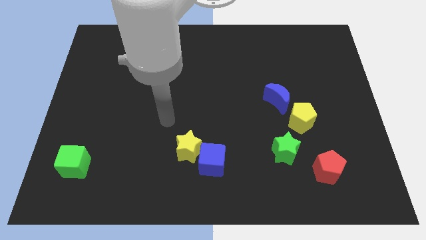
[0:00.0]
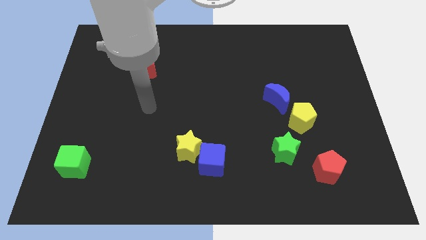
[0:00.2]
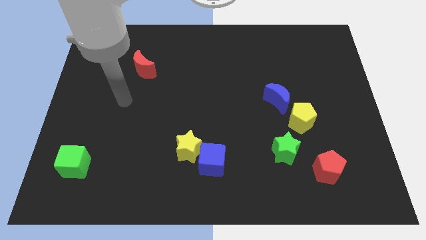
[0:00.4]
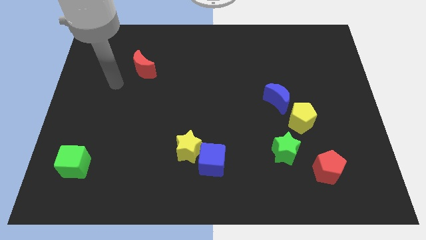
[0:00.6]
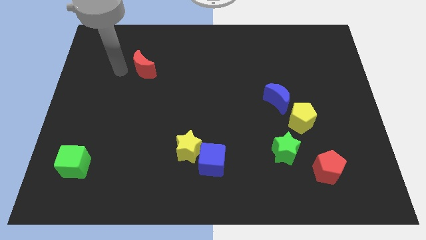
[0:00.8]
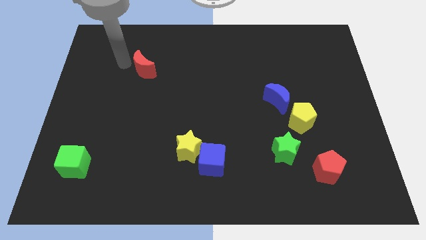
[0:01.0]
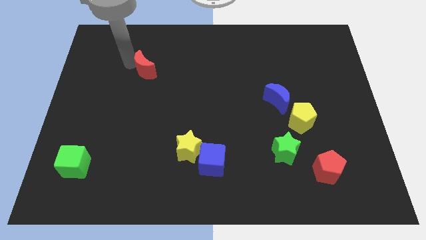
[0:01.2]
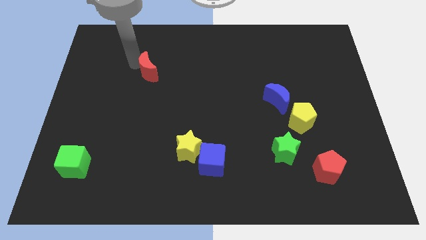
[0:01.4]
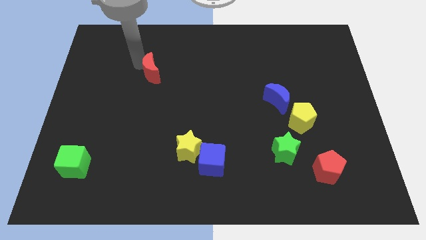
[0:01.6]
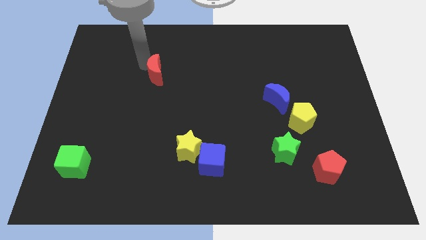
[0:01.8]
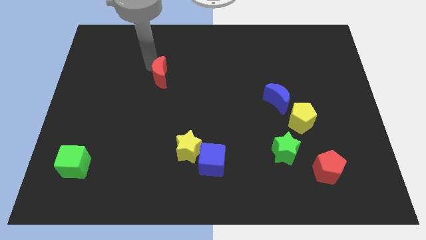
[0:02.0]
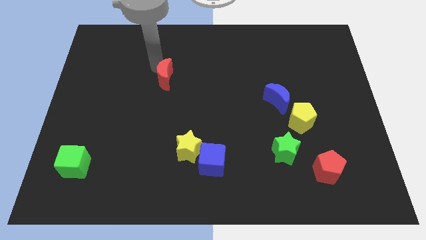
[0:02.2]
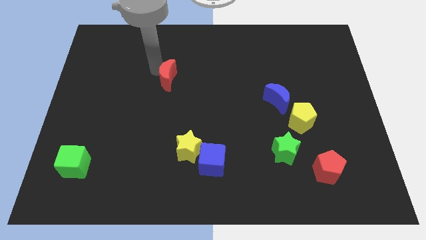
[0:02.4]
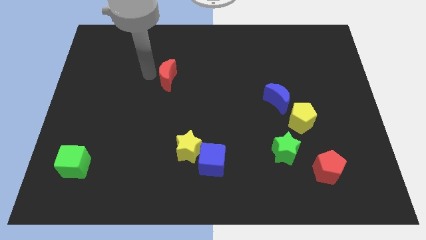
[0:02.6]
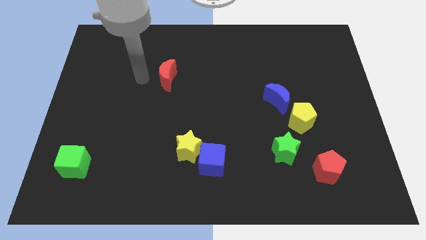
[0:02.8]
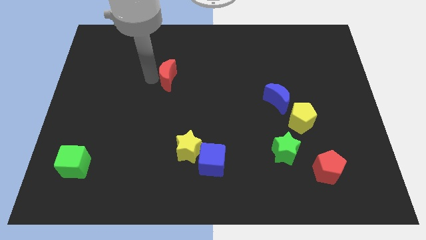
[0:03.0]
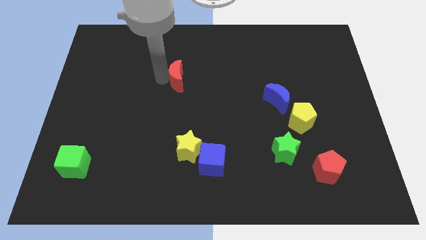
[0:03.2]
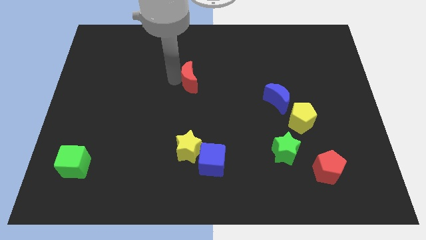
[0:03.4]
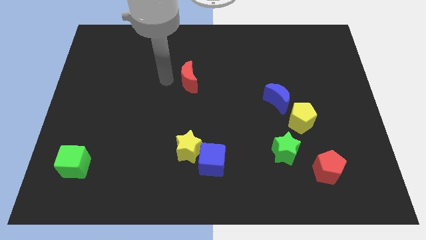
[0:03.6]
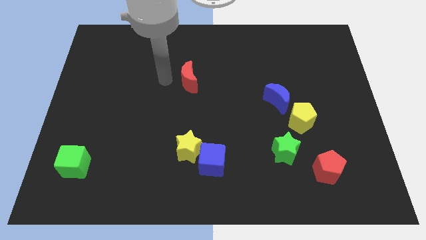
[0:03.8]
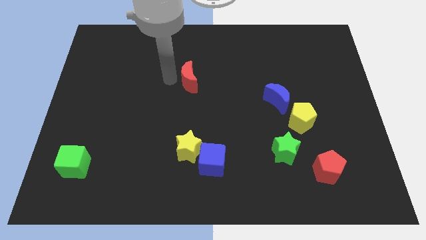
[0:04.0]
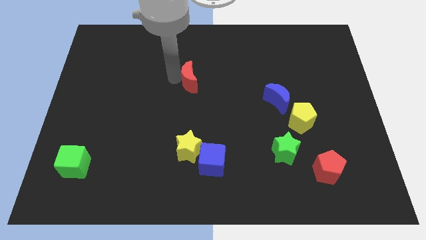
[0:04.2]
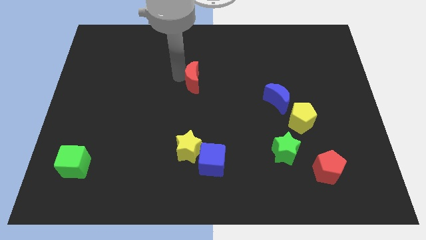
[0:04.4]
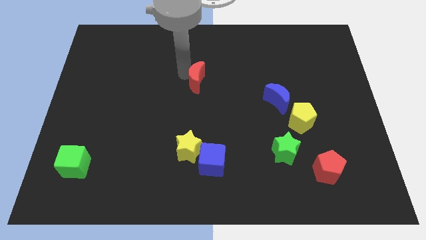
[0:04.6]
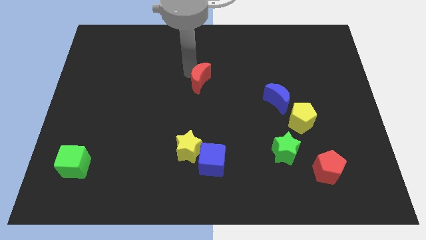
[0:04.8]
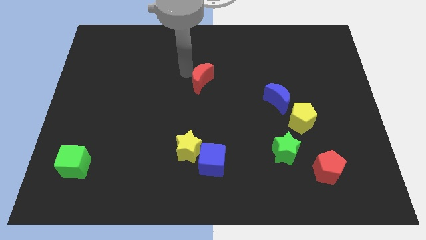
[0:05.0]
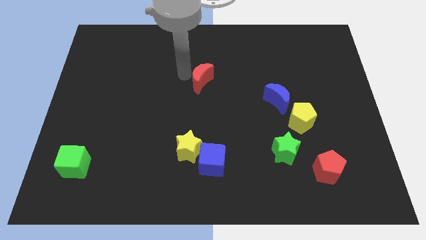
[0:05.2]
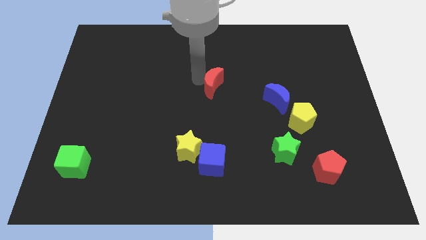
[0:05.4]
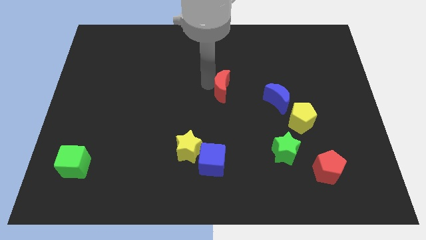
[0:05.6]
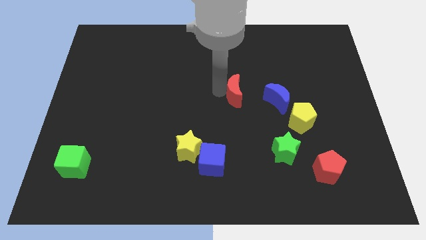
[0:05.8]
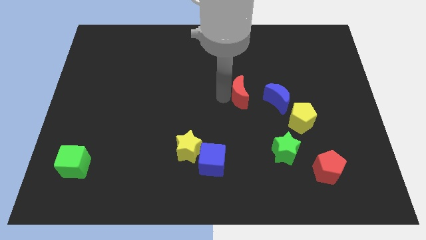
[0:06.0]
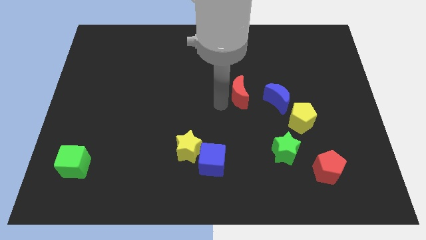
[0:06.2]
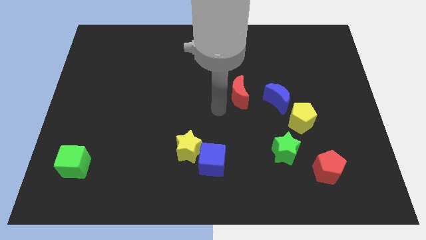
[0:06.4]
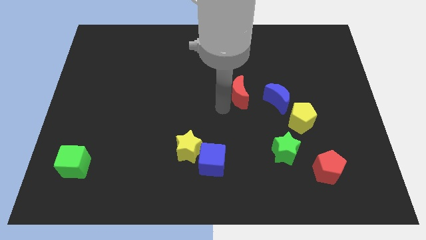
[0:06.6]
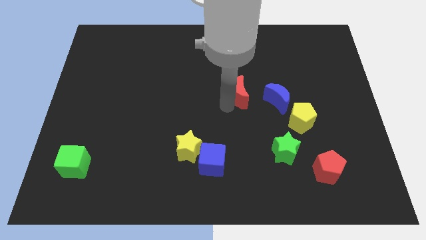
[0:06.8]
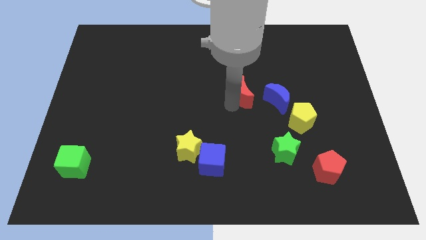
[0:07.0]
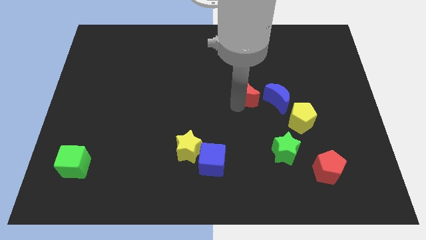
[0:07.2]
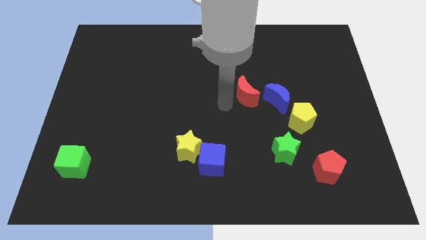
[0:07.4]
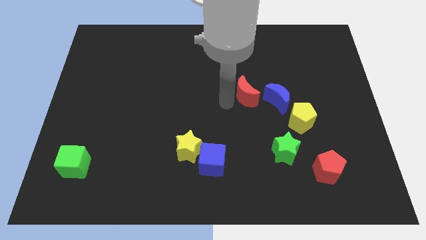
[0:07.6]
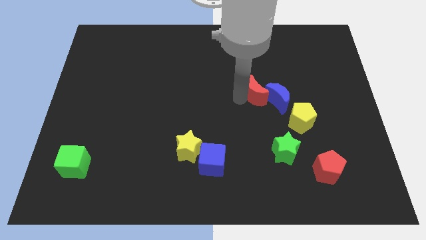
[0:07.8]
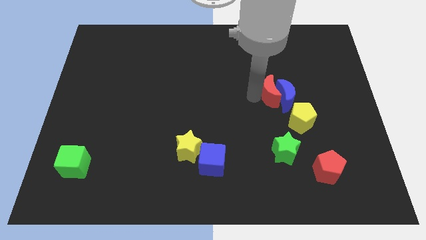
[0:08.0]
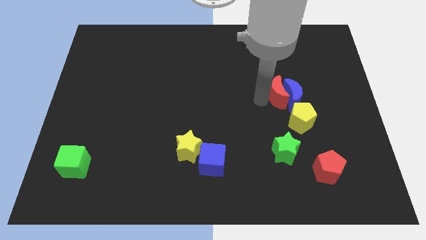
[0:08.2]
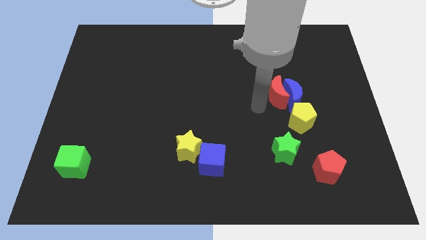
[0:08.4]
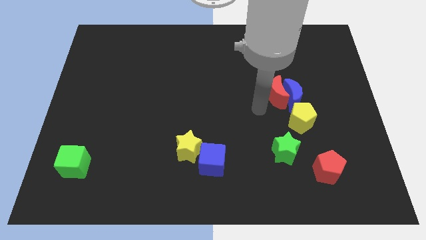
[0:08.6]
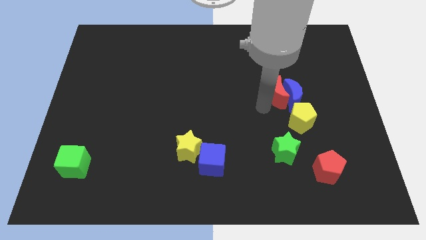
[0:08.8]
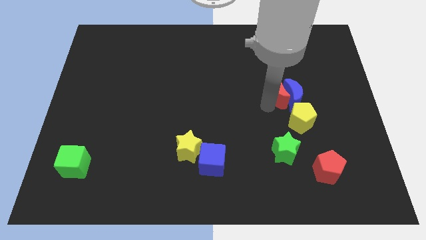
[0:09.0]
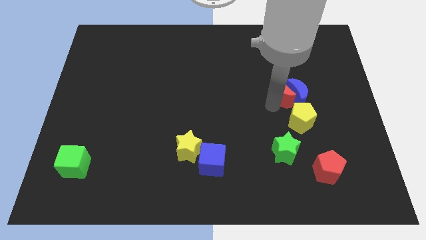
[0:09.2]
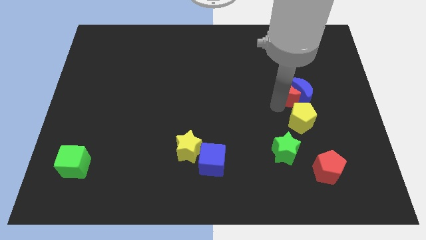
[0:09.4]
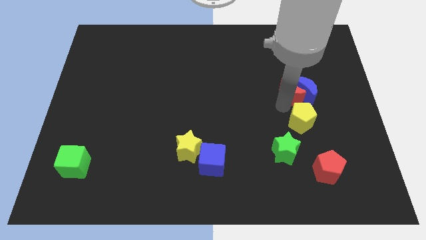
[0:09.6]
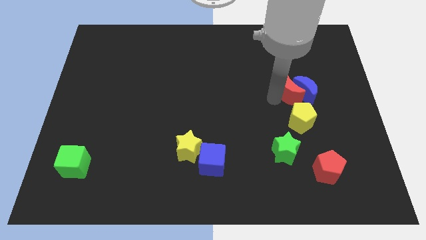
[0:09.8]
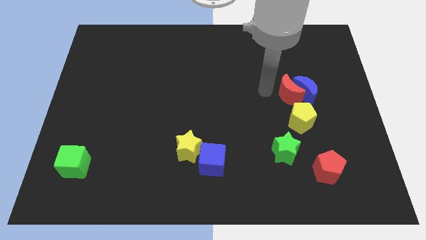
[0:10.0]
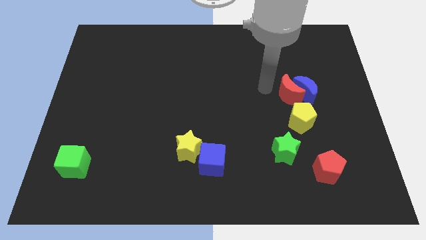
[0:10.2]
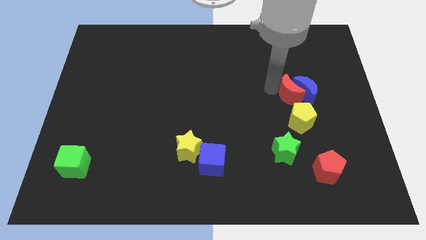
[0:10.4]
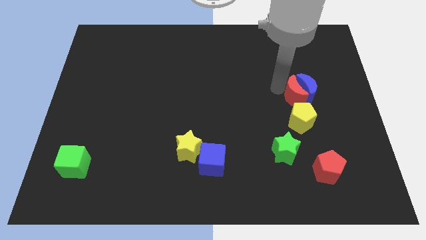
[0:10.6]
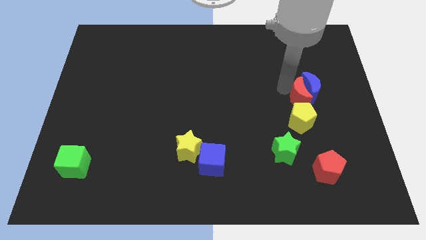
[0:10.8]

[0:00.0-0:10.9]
push the red moon to the top right side of the yellow pentagon

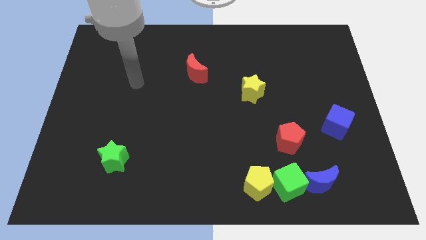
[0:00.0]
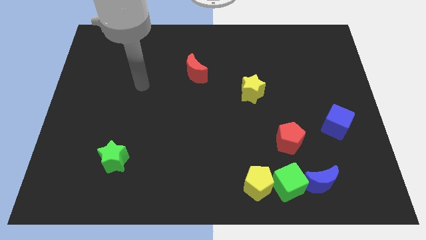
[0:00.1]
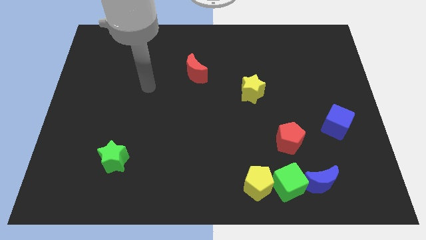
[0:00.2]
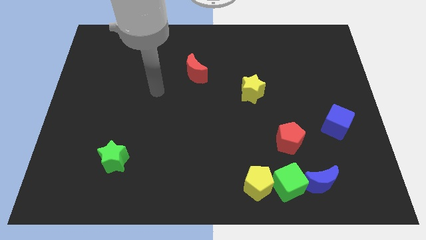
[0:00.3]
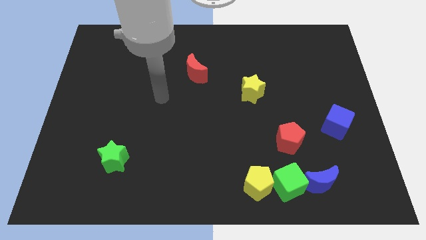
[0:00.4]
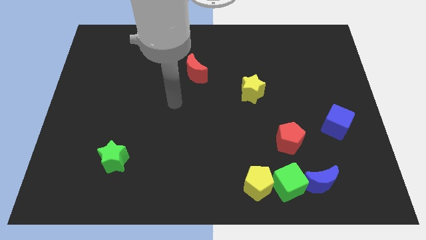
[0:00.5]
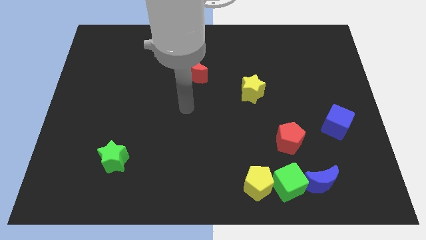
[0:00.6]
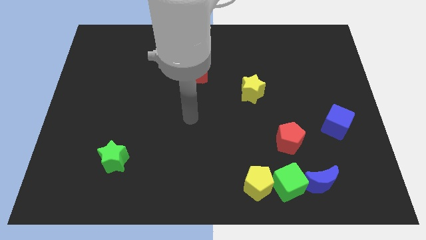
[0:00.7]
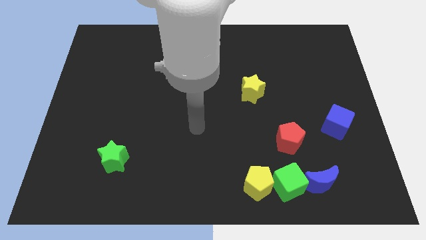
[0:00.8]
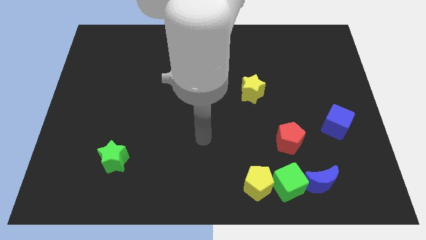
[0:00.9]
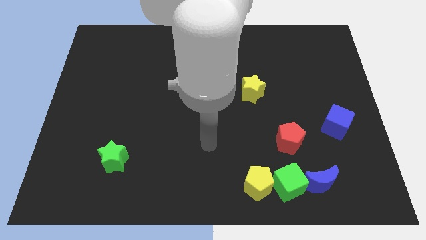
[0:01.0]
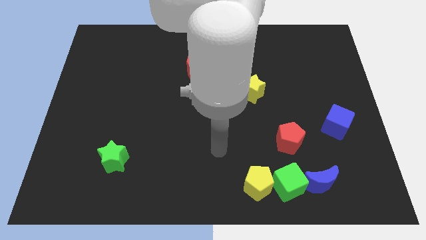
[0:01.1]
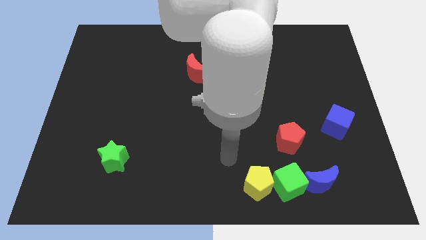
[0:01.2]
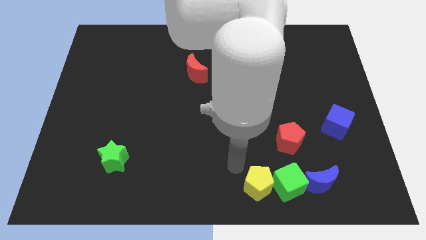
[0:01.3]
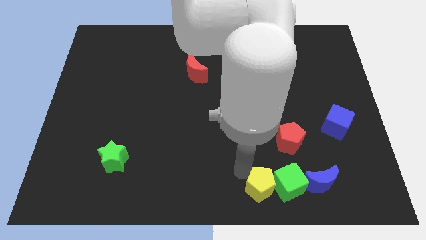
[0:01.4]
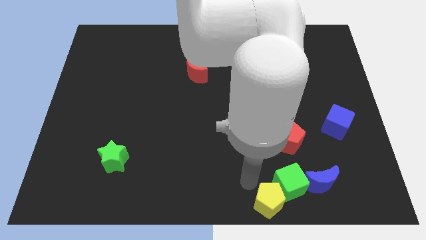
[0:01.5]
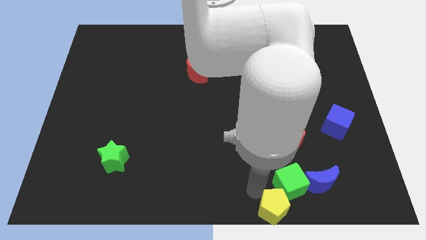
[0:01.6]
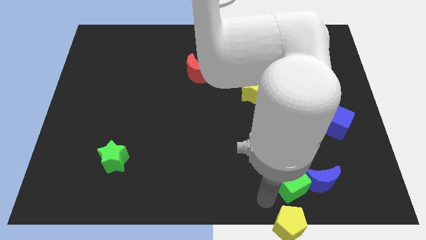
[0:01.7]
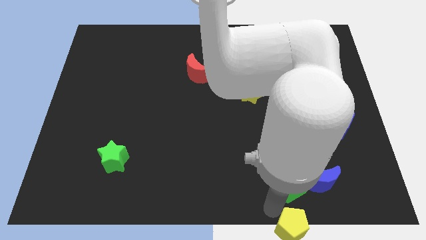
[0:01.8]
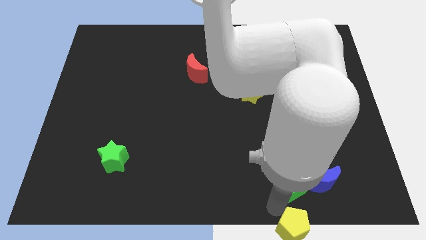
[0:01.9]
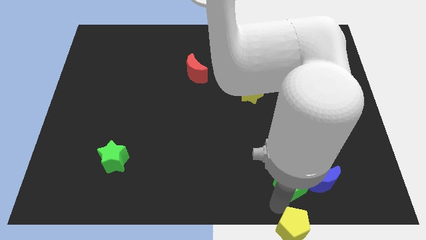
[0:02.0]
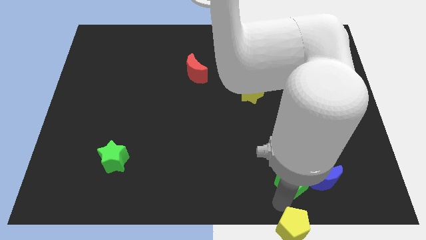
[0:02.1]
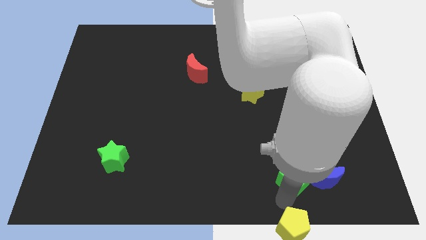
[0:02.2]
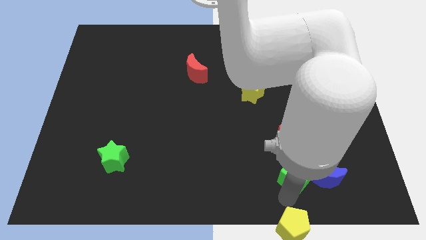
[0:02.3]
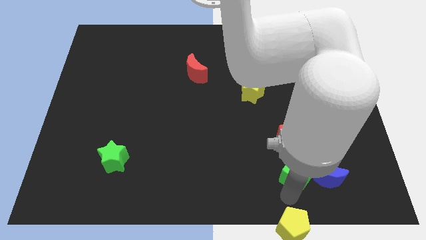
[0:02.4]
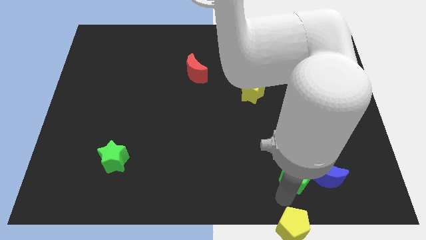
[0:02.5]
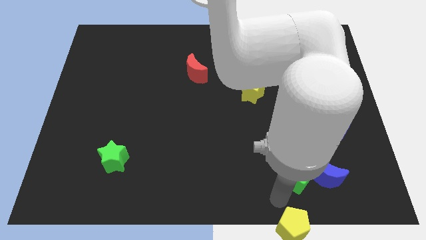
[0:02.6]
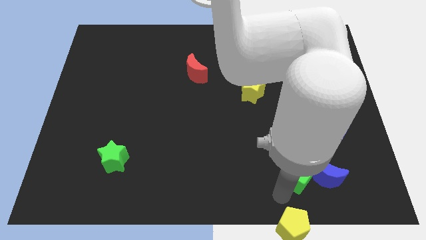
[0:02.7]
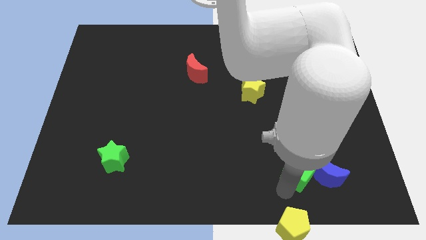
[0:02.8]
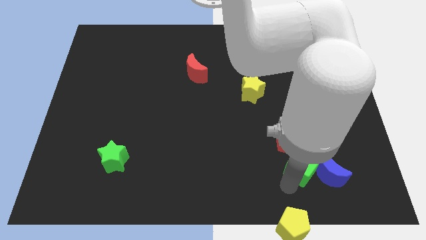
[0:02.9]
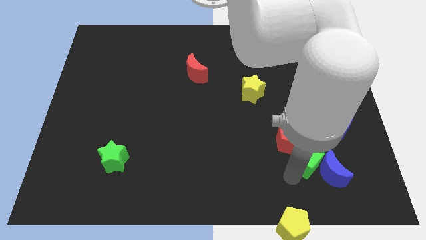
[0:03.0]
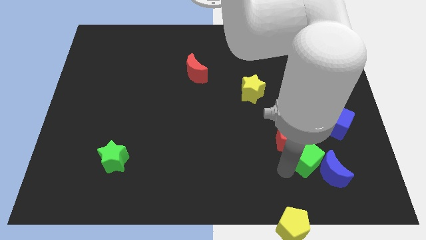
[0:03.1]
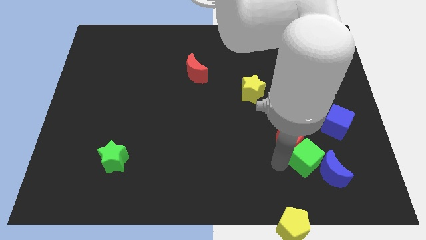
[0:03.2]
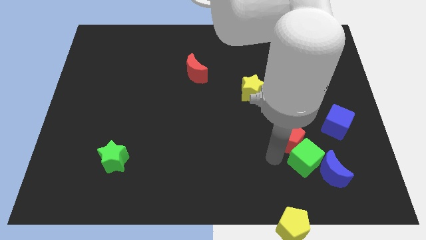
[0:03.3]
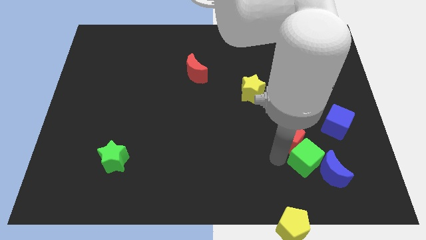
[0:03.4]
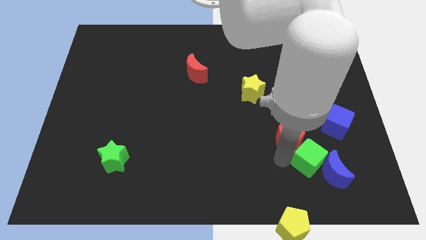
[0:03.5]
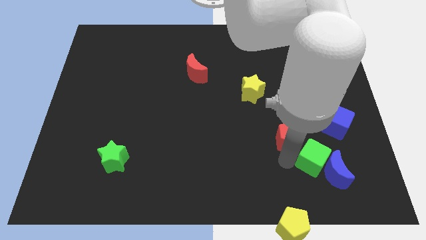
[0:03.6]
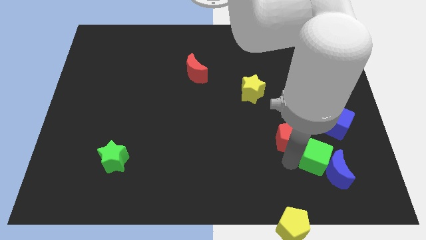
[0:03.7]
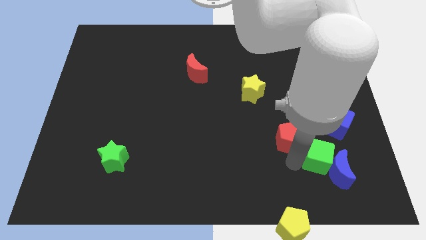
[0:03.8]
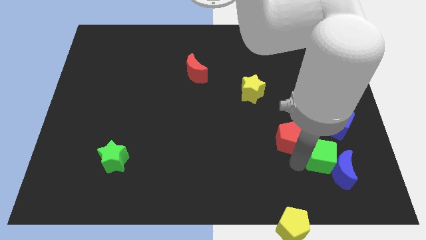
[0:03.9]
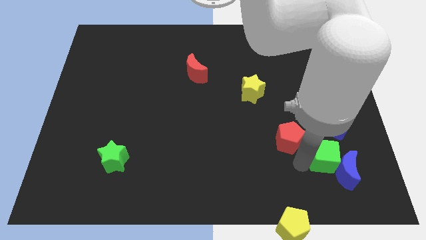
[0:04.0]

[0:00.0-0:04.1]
slide the green cube below the blue cube
